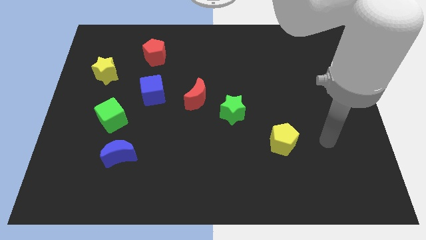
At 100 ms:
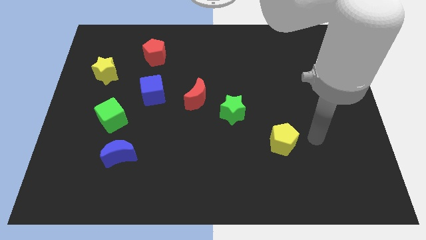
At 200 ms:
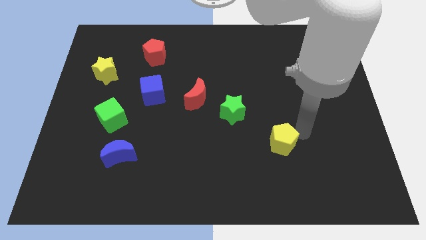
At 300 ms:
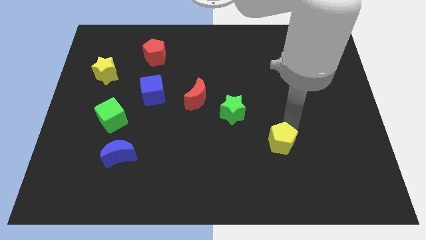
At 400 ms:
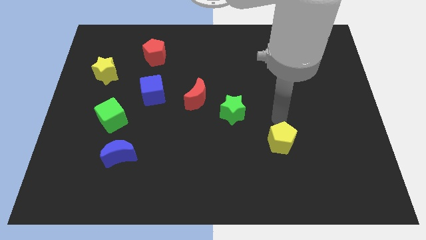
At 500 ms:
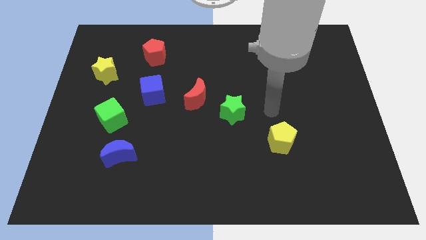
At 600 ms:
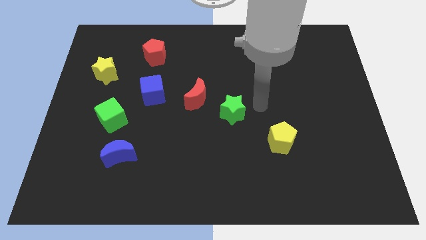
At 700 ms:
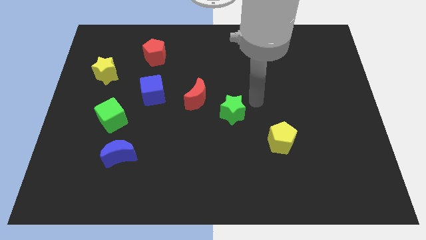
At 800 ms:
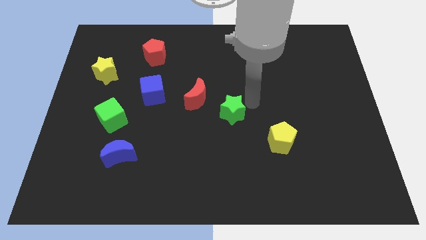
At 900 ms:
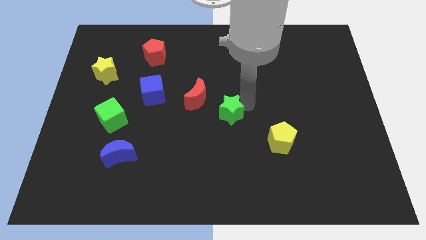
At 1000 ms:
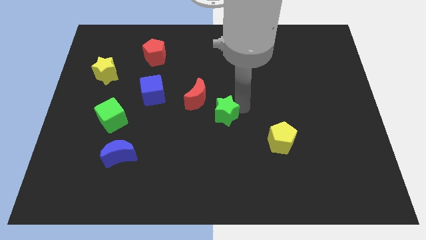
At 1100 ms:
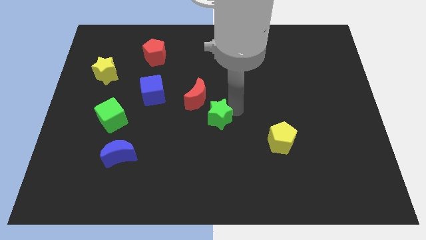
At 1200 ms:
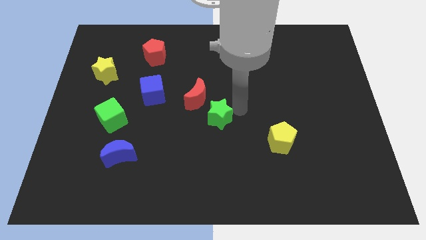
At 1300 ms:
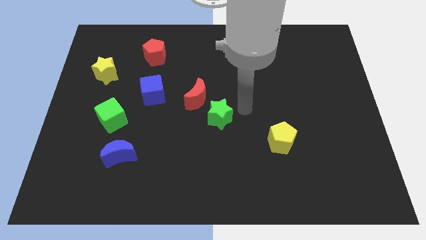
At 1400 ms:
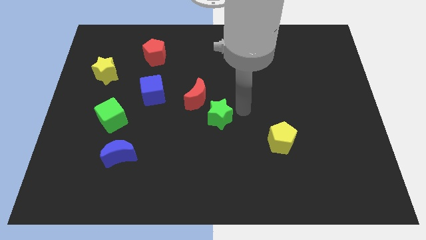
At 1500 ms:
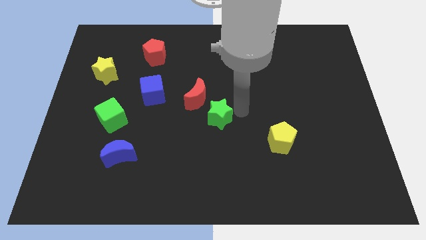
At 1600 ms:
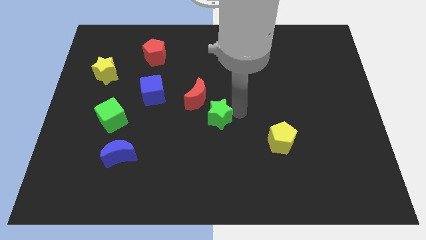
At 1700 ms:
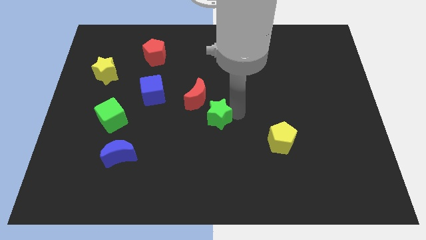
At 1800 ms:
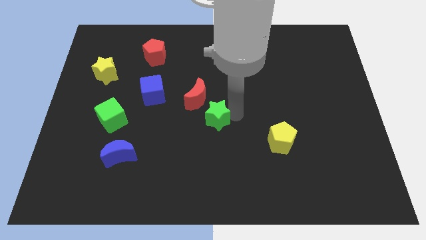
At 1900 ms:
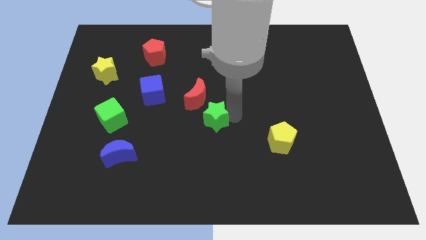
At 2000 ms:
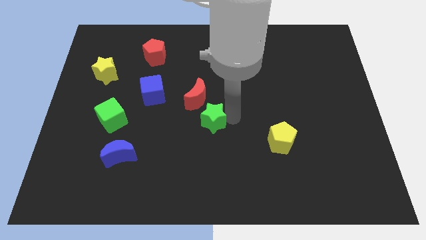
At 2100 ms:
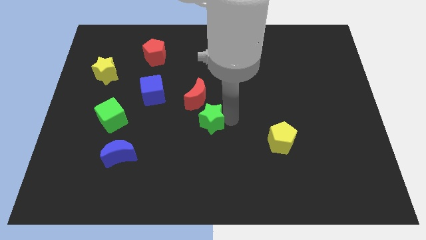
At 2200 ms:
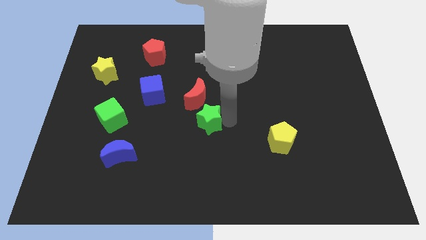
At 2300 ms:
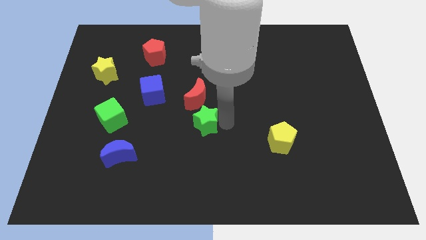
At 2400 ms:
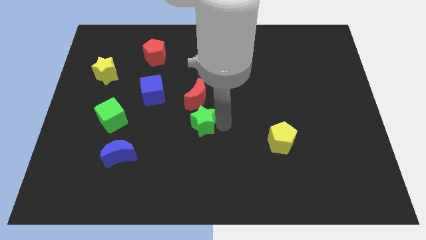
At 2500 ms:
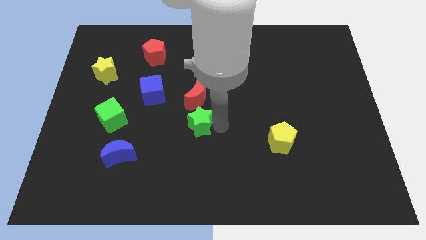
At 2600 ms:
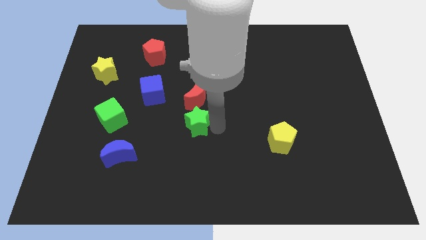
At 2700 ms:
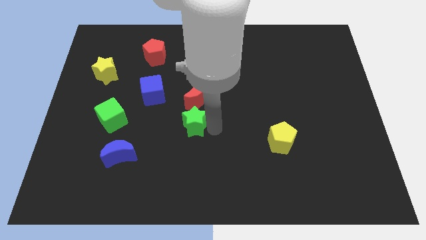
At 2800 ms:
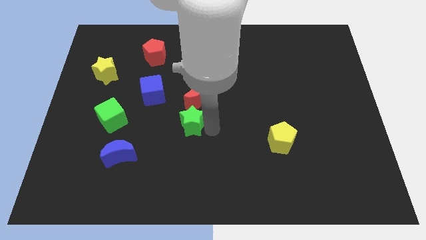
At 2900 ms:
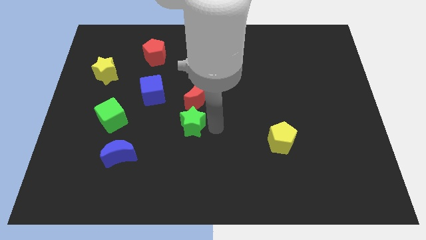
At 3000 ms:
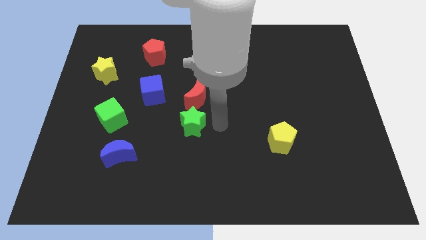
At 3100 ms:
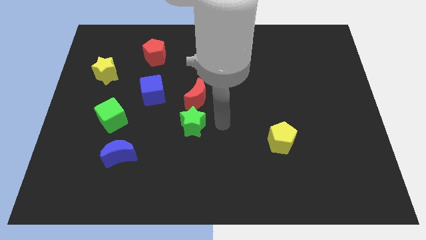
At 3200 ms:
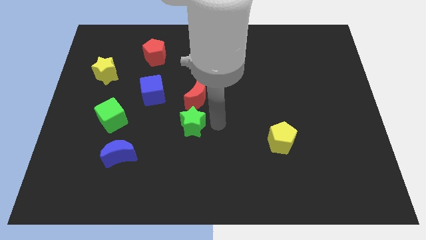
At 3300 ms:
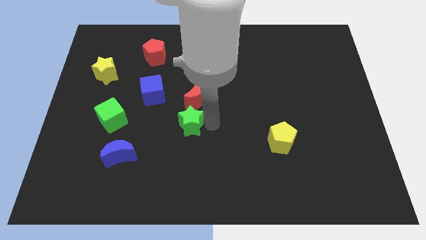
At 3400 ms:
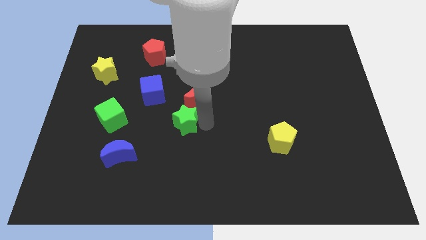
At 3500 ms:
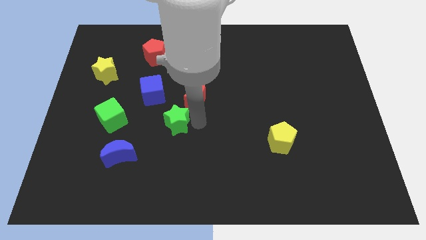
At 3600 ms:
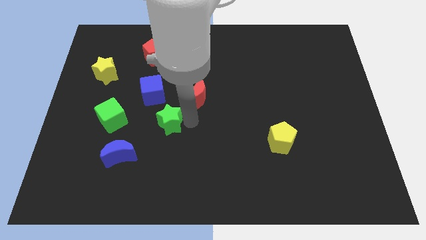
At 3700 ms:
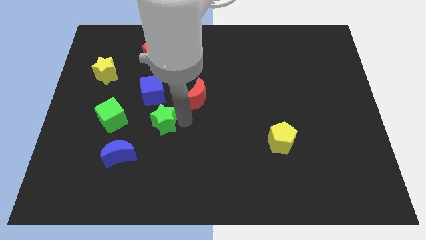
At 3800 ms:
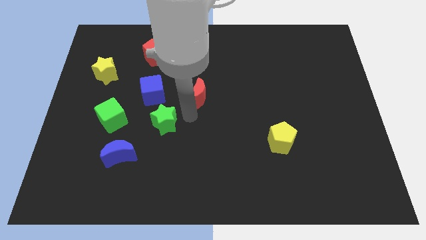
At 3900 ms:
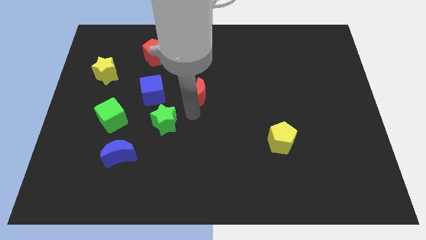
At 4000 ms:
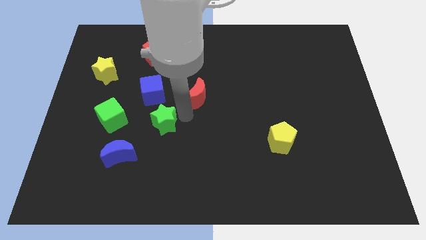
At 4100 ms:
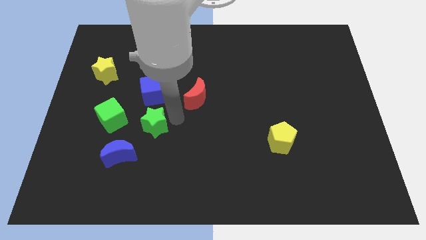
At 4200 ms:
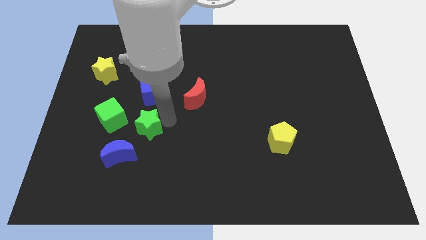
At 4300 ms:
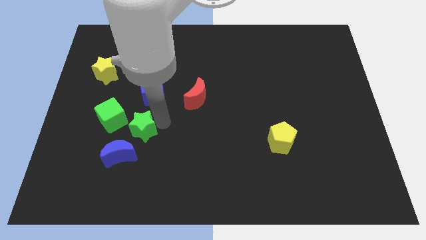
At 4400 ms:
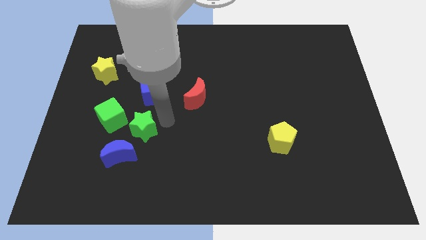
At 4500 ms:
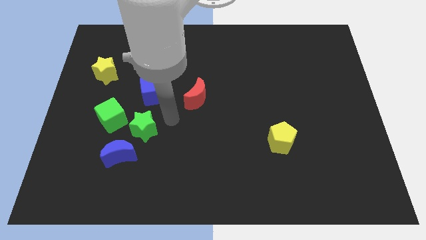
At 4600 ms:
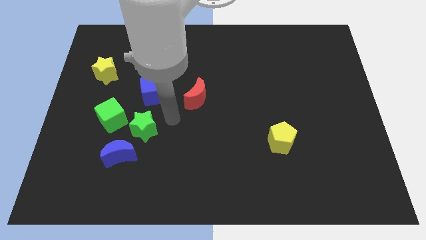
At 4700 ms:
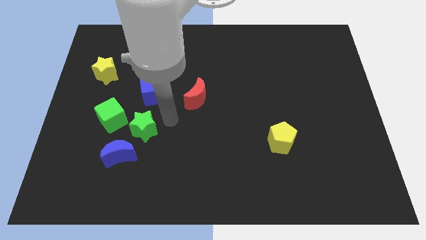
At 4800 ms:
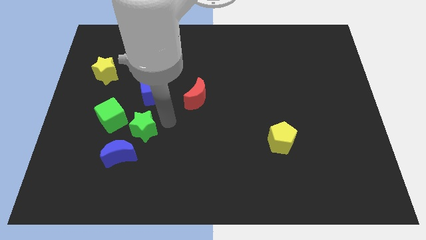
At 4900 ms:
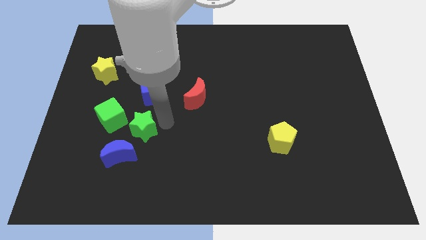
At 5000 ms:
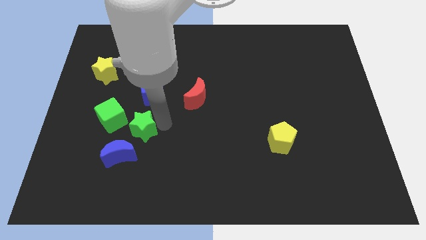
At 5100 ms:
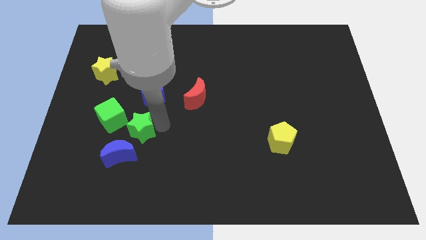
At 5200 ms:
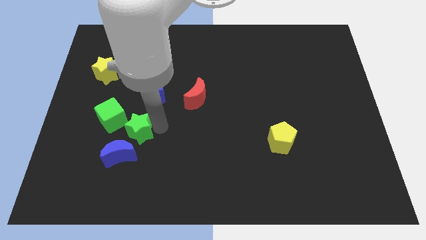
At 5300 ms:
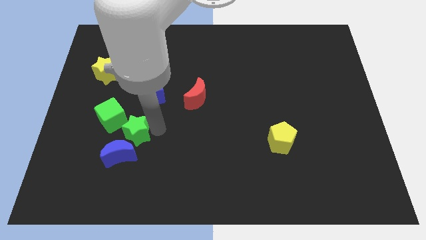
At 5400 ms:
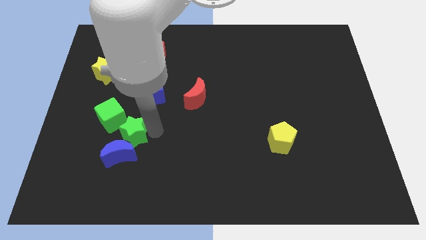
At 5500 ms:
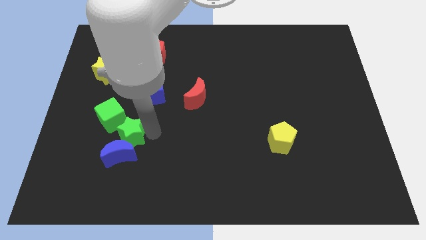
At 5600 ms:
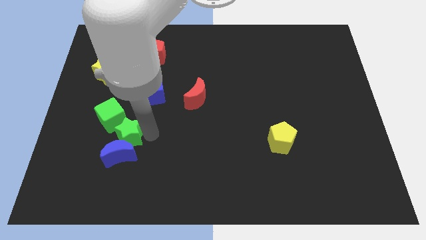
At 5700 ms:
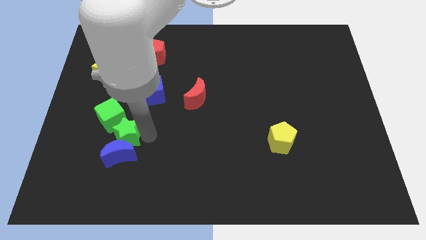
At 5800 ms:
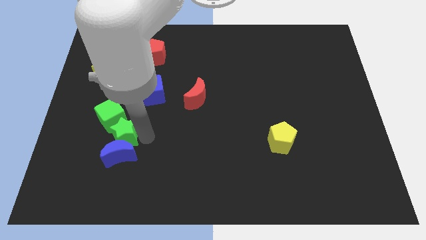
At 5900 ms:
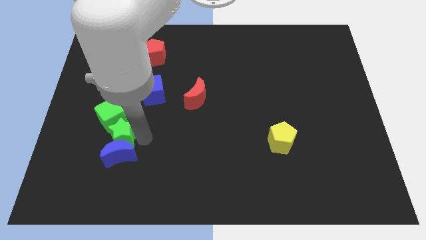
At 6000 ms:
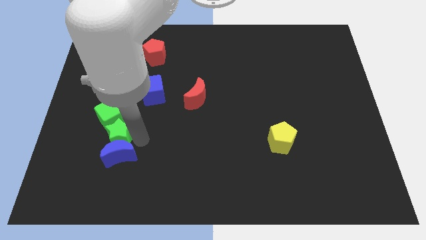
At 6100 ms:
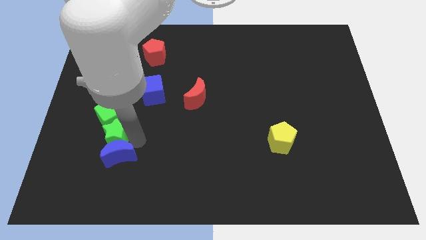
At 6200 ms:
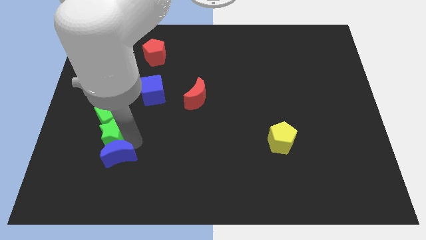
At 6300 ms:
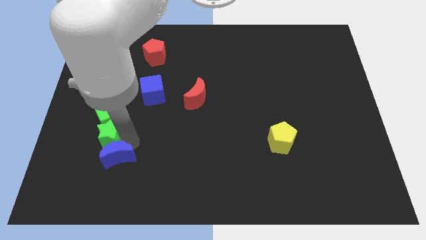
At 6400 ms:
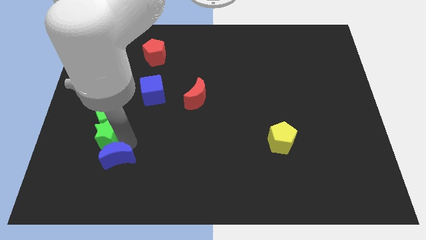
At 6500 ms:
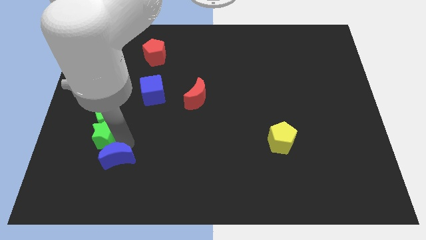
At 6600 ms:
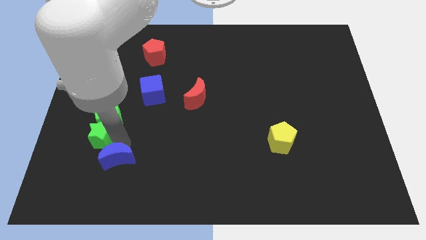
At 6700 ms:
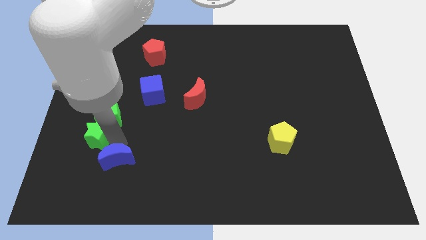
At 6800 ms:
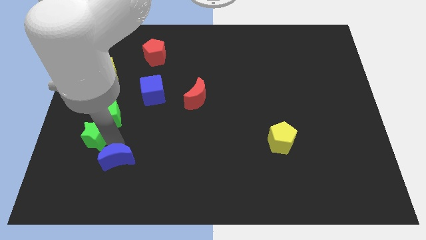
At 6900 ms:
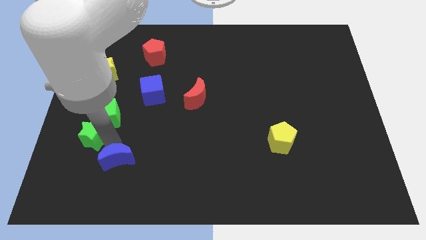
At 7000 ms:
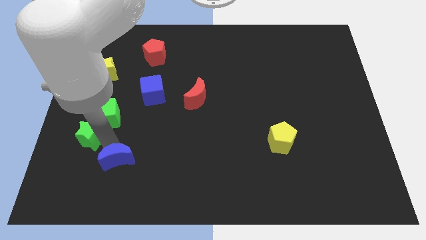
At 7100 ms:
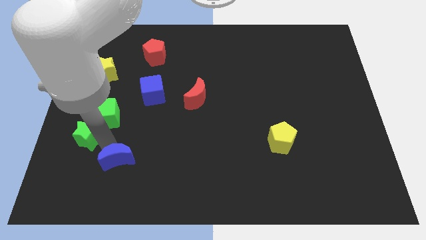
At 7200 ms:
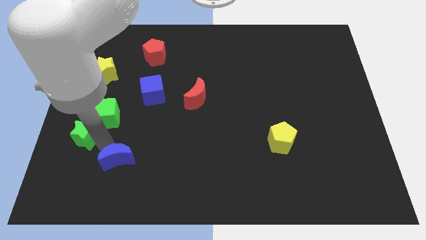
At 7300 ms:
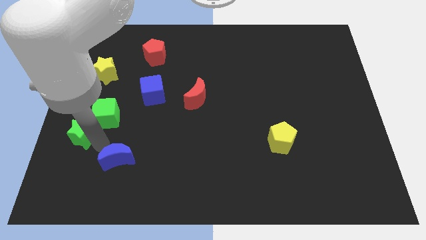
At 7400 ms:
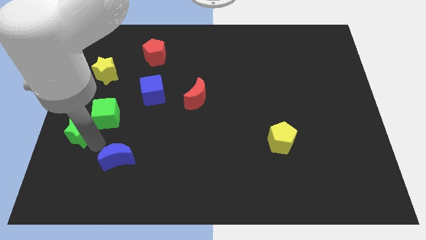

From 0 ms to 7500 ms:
push the green star to the left side
